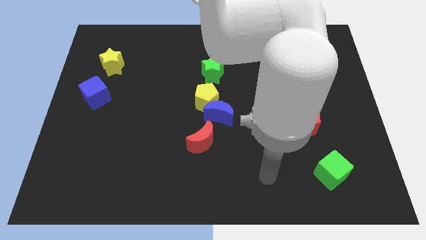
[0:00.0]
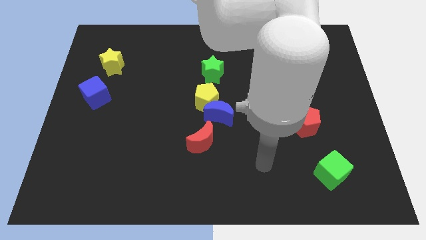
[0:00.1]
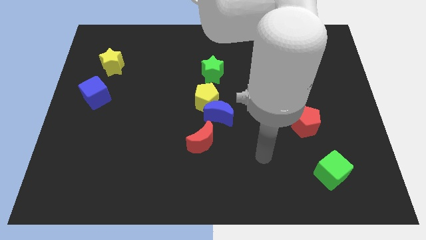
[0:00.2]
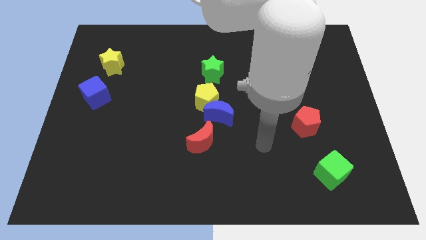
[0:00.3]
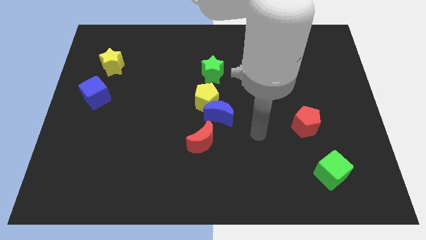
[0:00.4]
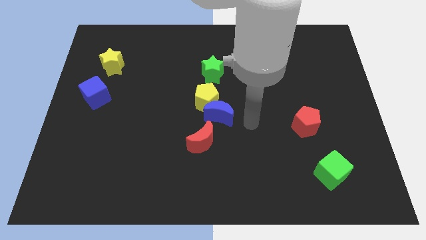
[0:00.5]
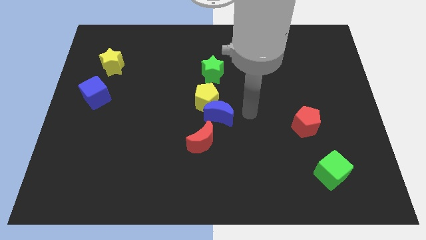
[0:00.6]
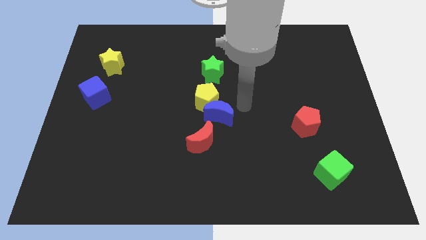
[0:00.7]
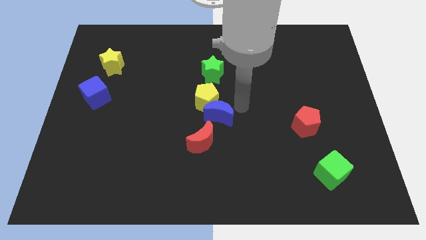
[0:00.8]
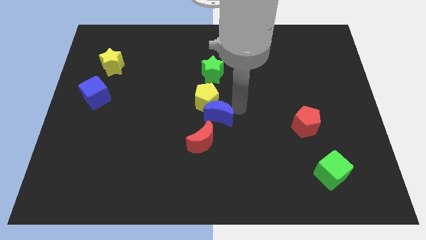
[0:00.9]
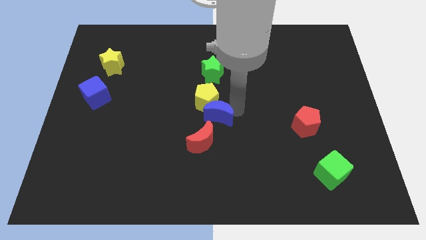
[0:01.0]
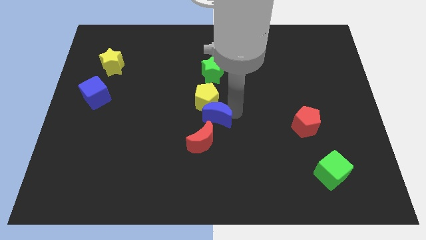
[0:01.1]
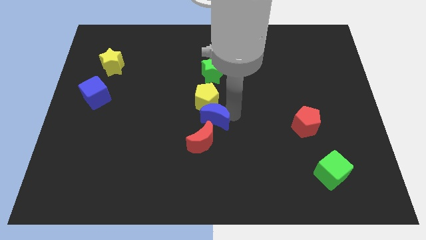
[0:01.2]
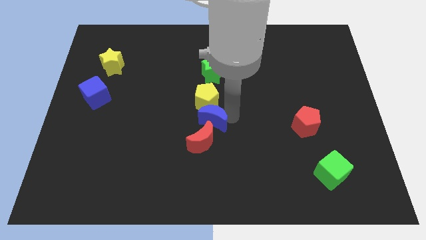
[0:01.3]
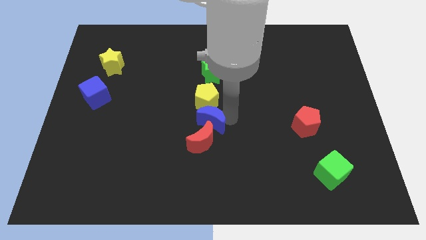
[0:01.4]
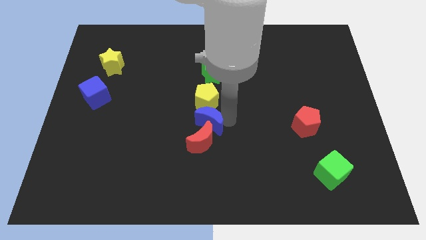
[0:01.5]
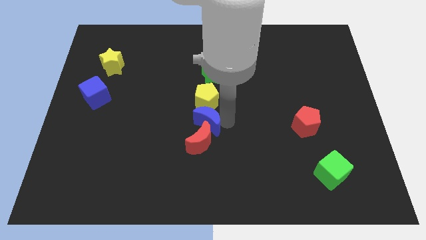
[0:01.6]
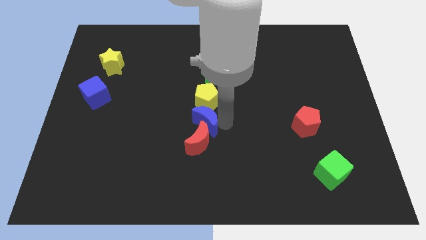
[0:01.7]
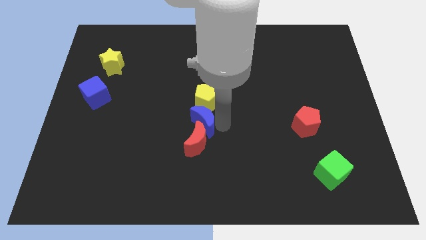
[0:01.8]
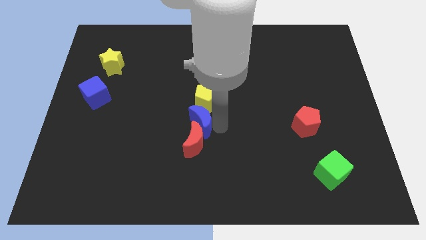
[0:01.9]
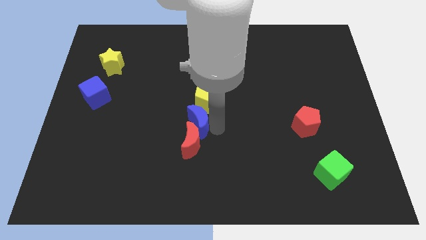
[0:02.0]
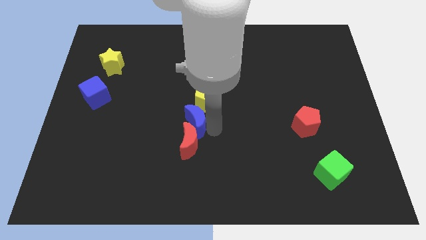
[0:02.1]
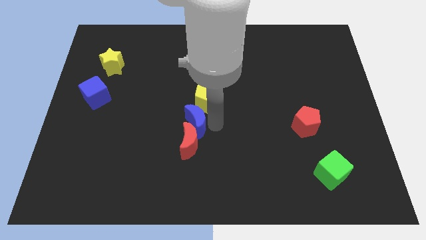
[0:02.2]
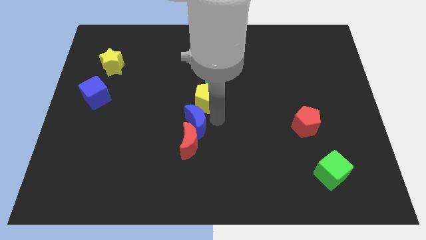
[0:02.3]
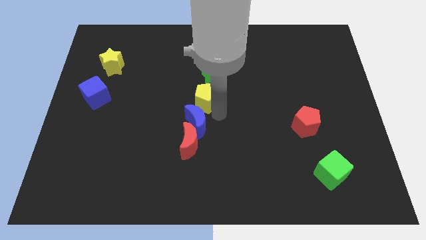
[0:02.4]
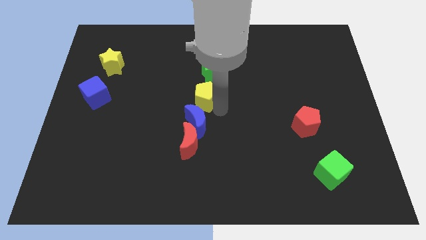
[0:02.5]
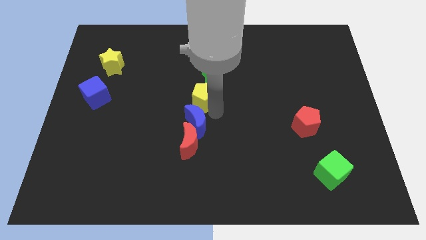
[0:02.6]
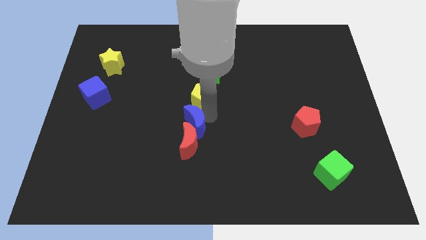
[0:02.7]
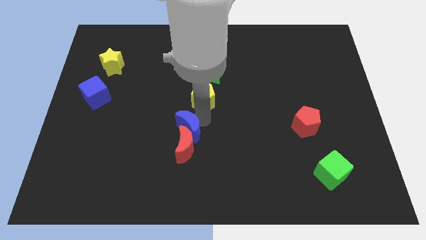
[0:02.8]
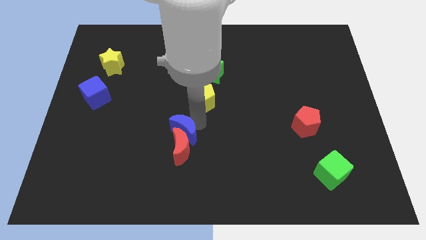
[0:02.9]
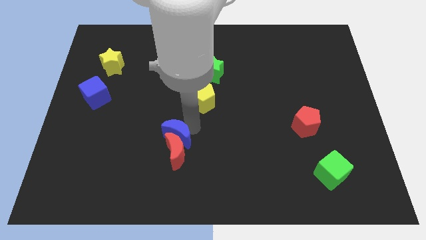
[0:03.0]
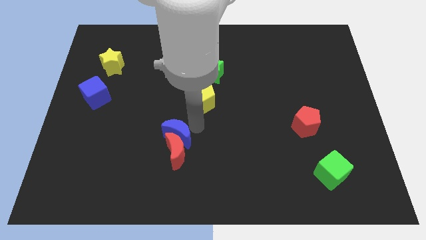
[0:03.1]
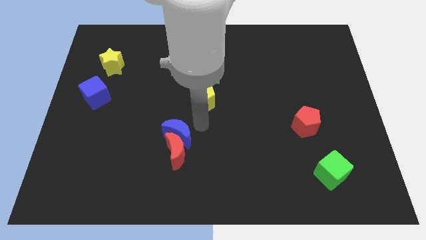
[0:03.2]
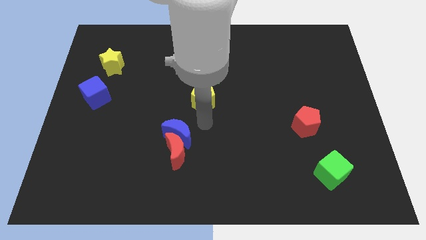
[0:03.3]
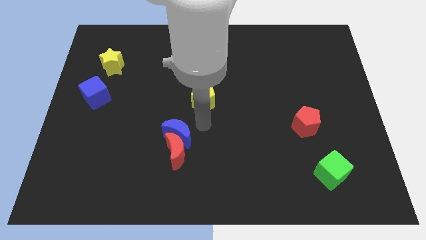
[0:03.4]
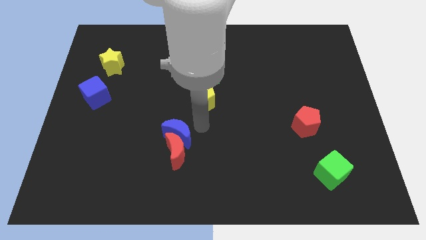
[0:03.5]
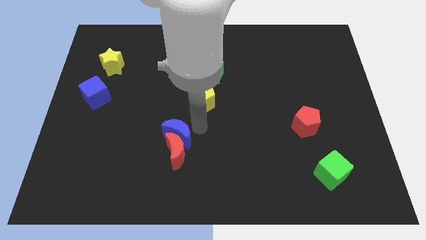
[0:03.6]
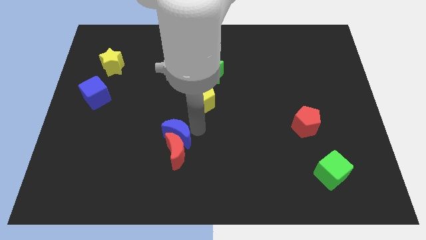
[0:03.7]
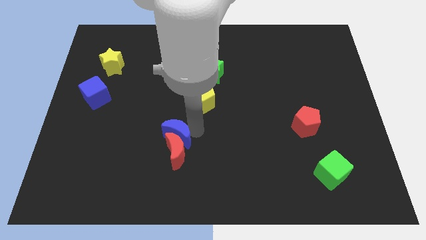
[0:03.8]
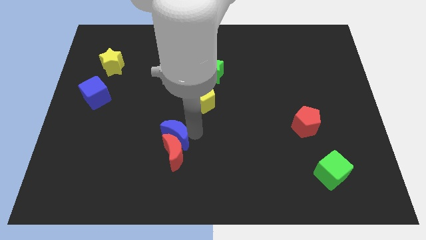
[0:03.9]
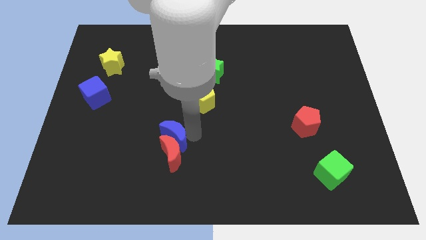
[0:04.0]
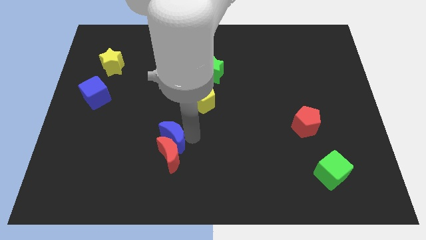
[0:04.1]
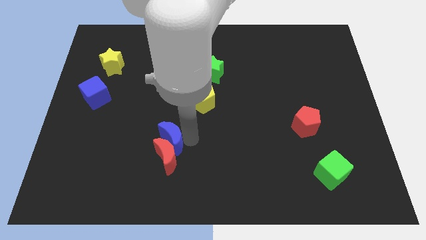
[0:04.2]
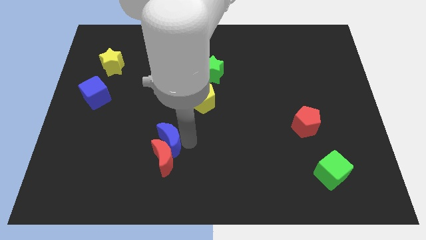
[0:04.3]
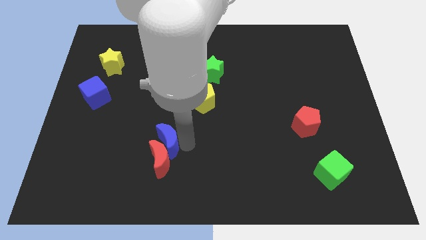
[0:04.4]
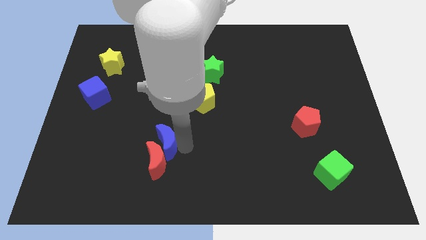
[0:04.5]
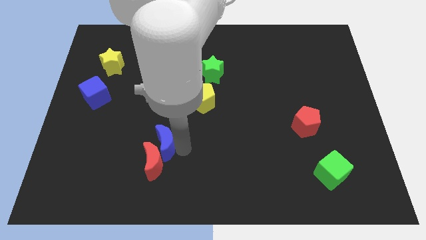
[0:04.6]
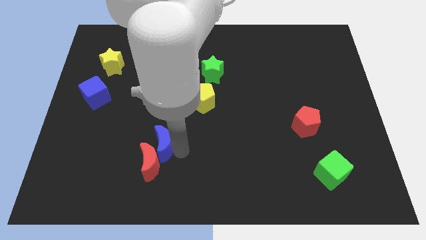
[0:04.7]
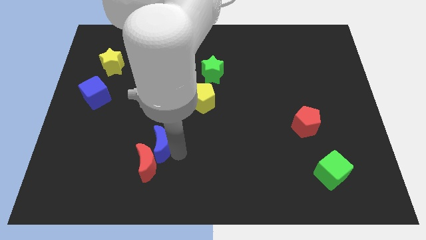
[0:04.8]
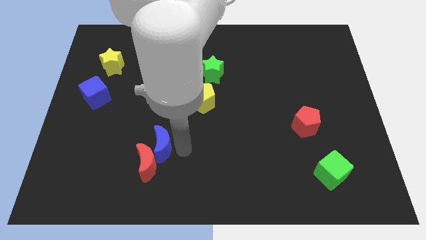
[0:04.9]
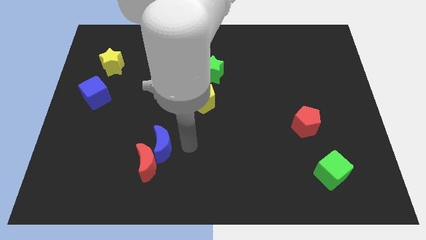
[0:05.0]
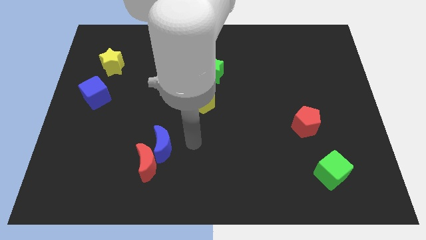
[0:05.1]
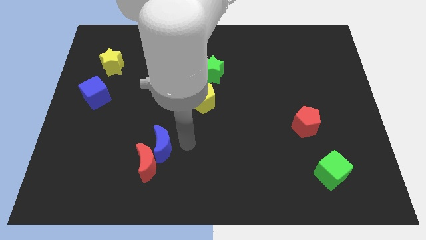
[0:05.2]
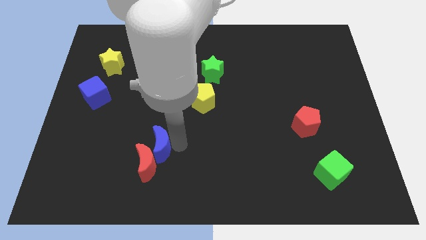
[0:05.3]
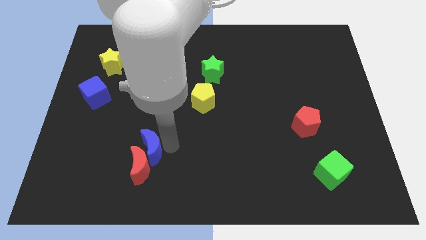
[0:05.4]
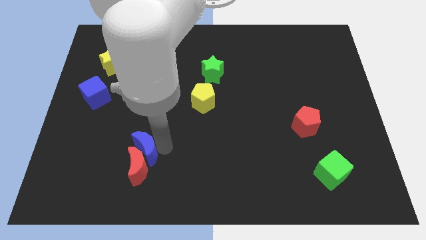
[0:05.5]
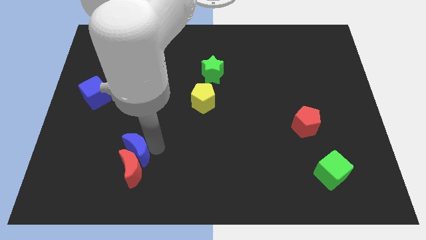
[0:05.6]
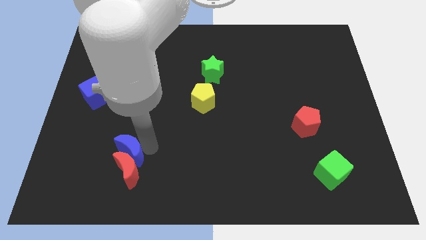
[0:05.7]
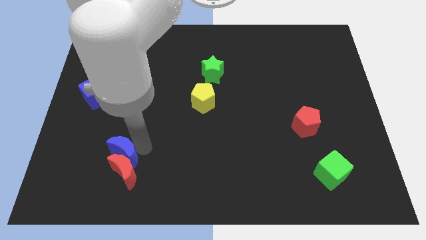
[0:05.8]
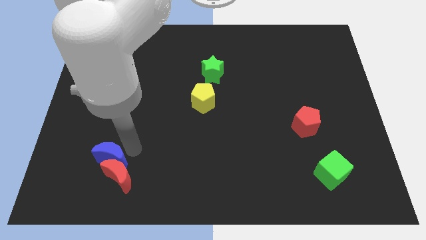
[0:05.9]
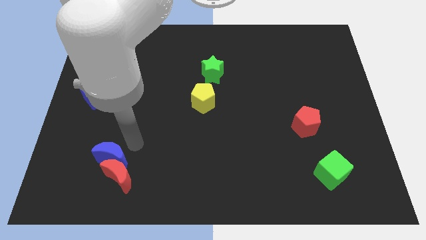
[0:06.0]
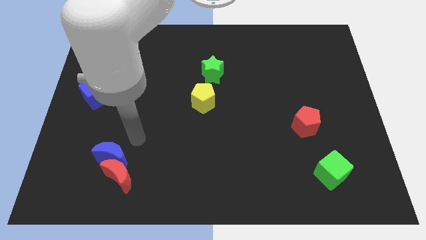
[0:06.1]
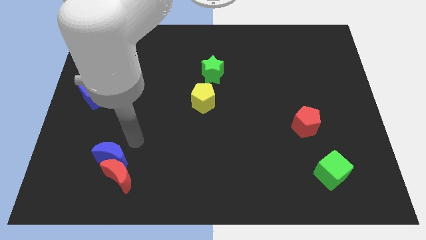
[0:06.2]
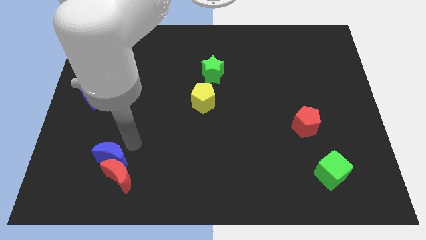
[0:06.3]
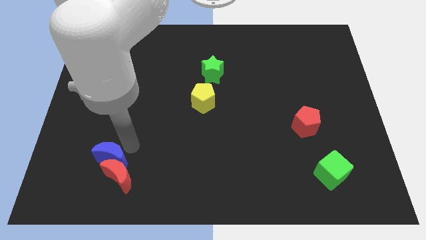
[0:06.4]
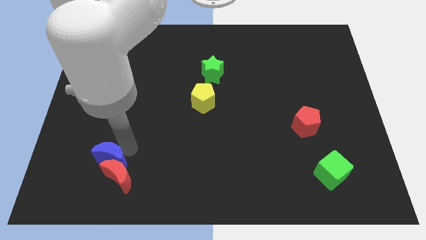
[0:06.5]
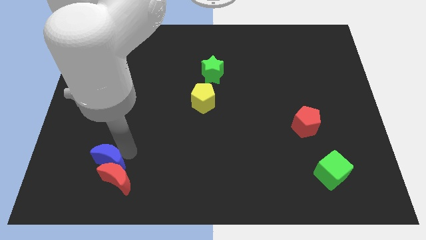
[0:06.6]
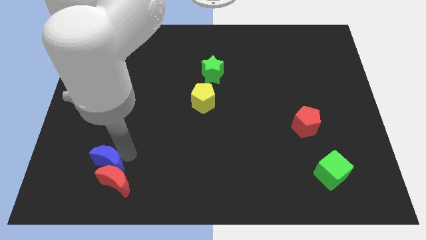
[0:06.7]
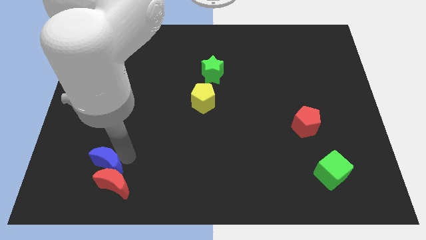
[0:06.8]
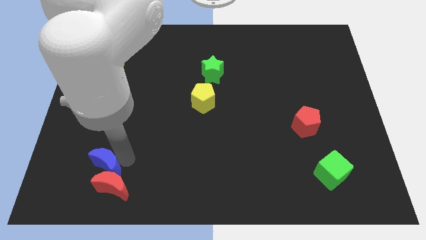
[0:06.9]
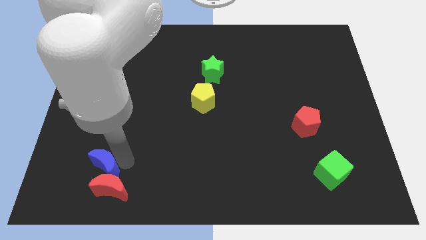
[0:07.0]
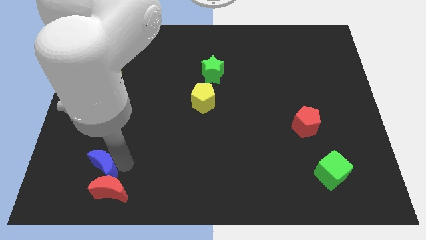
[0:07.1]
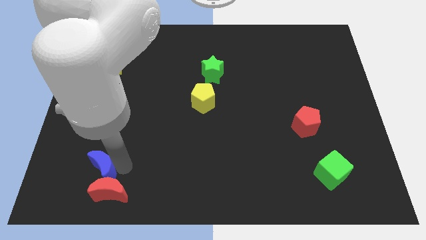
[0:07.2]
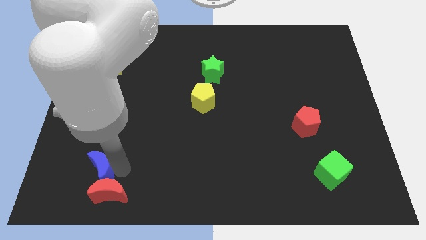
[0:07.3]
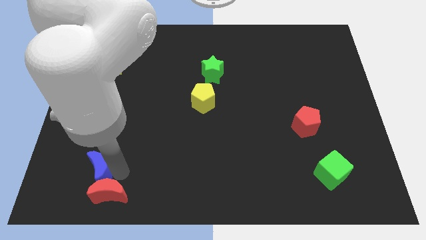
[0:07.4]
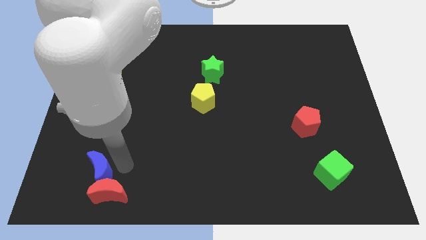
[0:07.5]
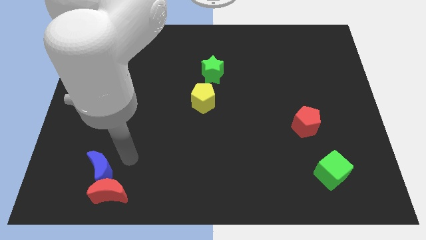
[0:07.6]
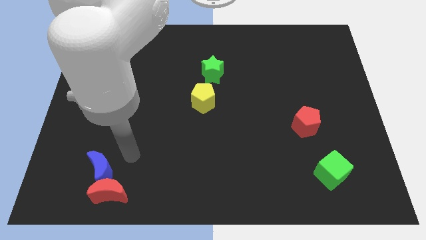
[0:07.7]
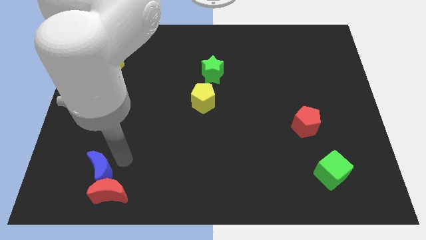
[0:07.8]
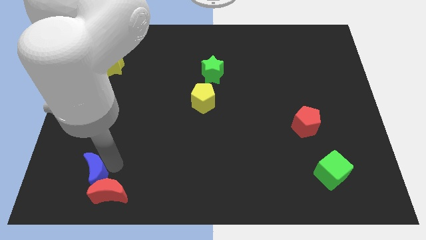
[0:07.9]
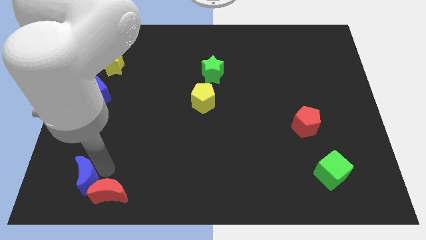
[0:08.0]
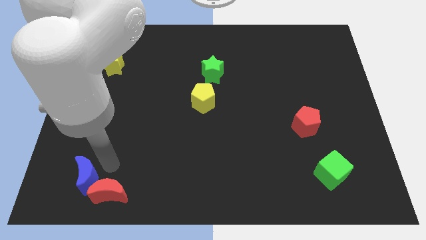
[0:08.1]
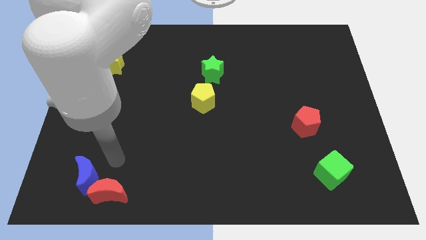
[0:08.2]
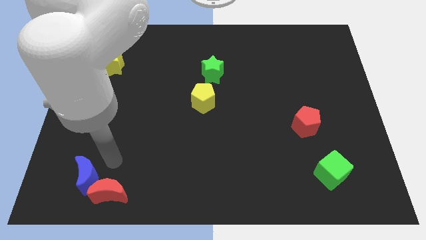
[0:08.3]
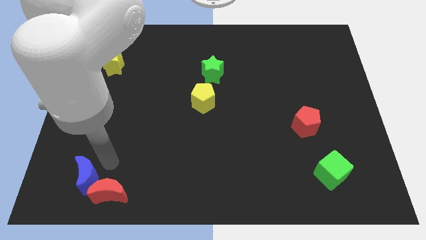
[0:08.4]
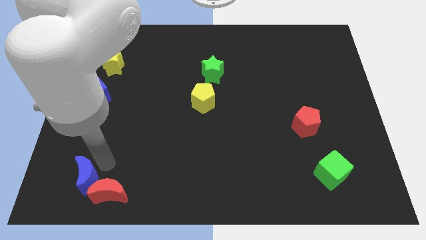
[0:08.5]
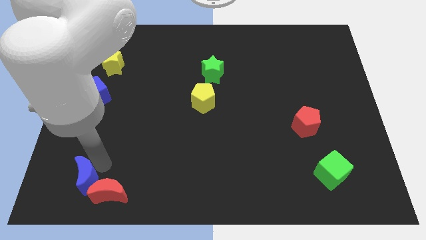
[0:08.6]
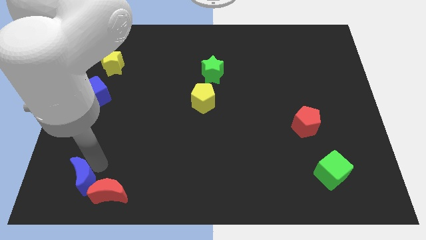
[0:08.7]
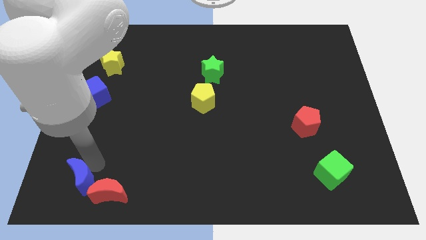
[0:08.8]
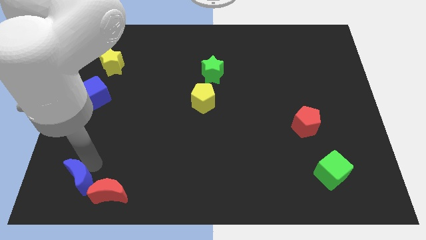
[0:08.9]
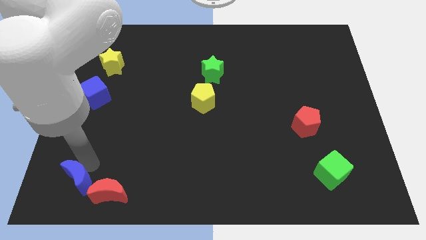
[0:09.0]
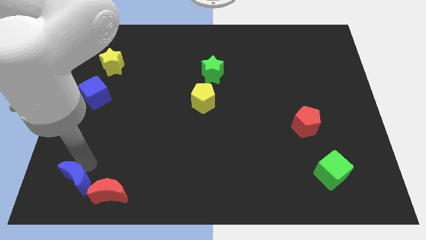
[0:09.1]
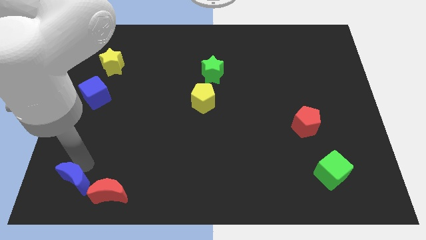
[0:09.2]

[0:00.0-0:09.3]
slide the blue moon to the bottom left
